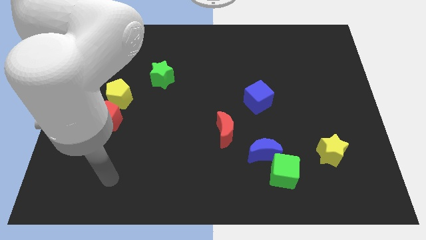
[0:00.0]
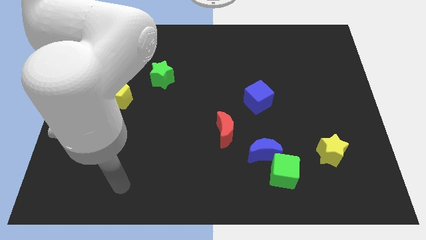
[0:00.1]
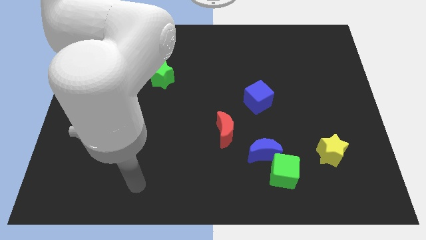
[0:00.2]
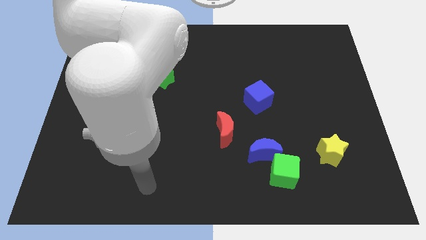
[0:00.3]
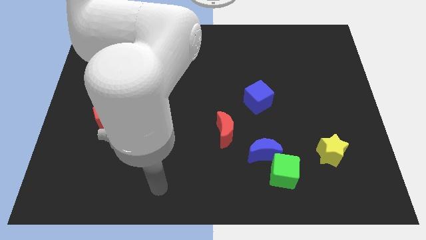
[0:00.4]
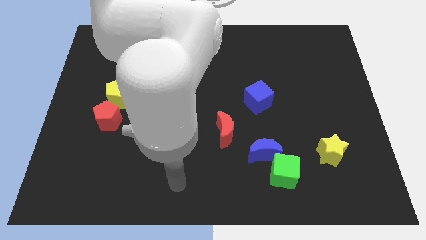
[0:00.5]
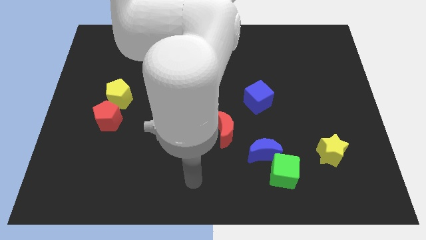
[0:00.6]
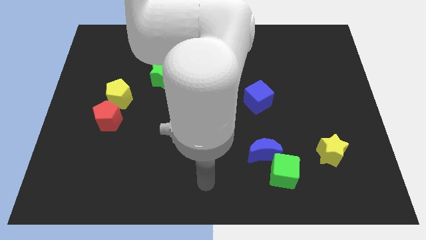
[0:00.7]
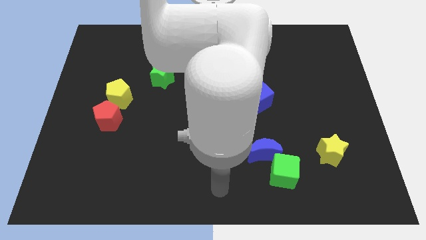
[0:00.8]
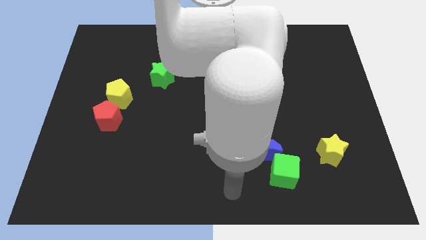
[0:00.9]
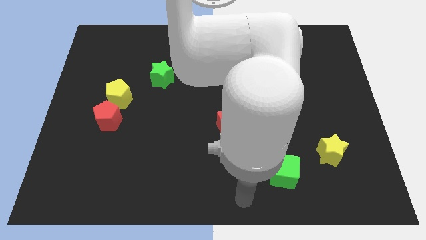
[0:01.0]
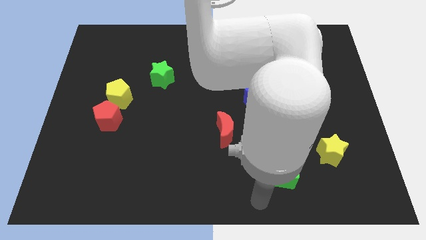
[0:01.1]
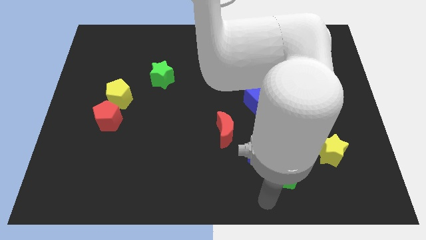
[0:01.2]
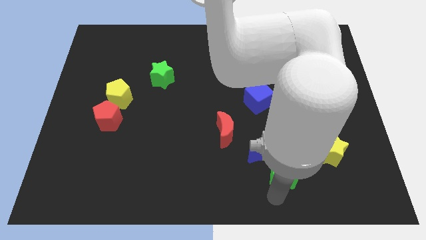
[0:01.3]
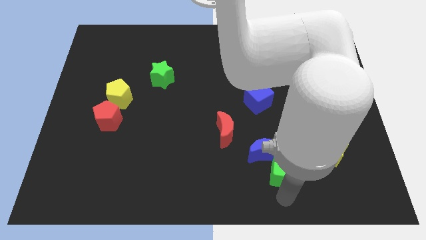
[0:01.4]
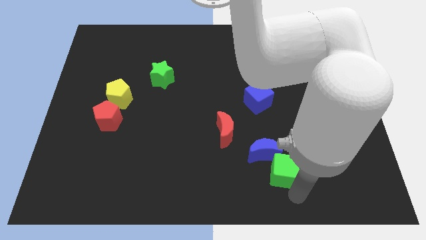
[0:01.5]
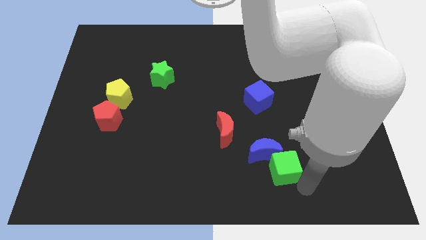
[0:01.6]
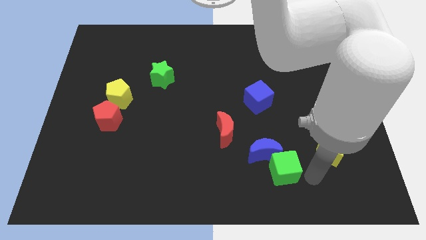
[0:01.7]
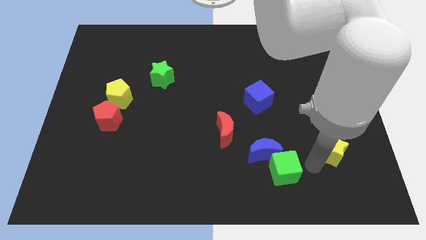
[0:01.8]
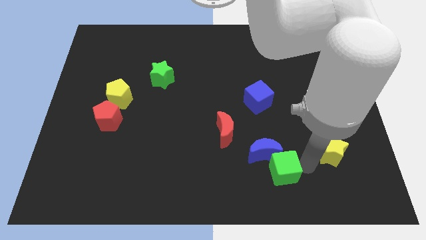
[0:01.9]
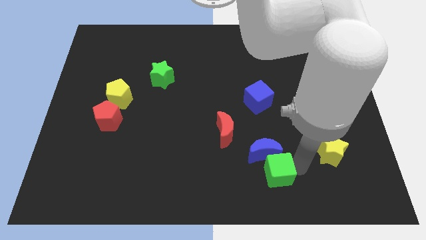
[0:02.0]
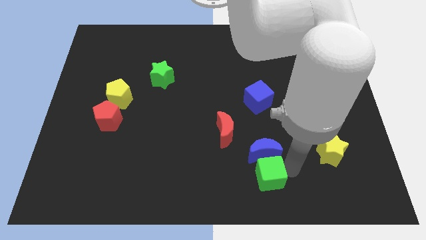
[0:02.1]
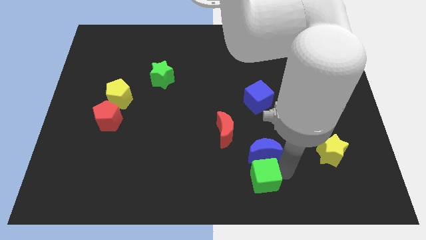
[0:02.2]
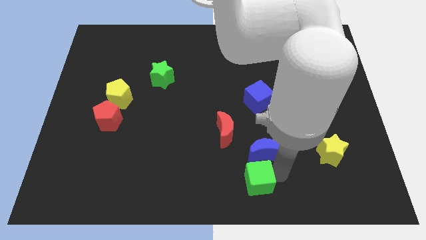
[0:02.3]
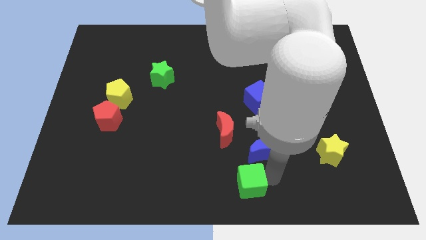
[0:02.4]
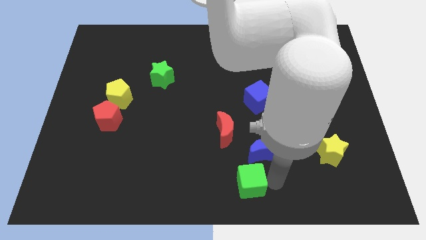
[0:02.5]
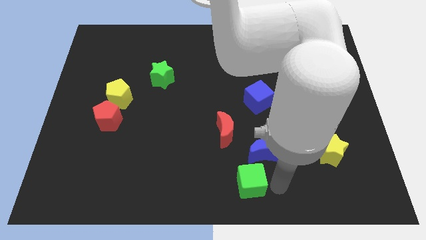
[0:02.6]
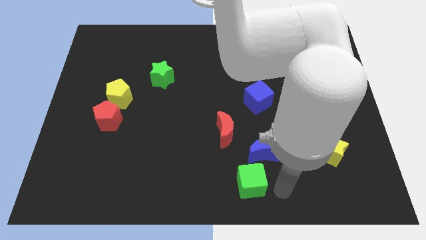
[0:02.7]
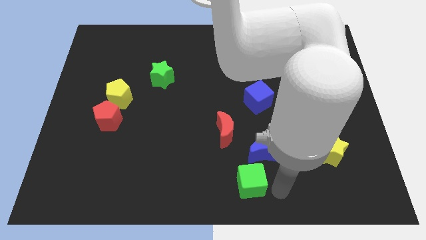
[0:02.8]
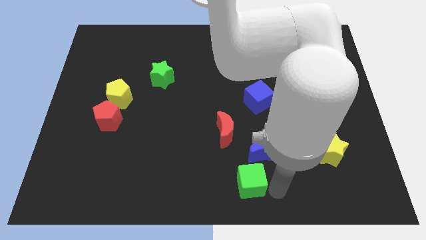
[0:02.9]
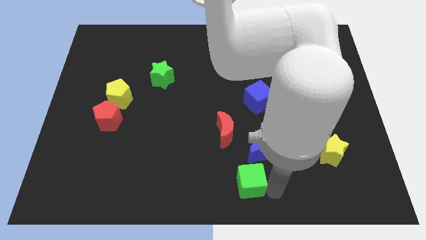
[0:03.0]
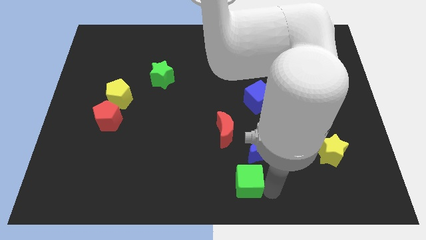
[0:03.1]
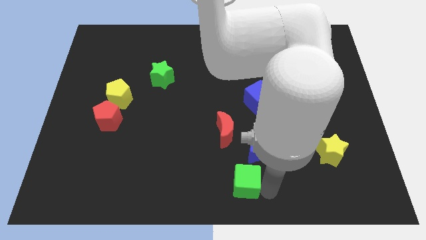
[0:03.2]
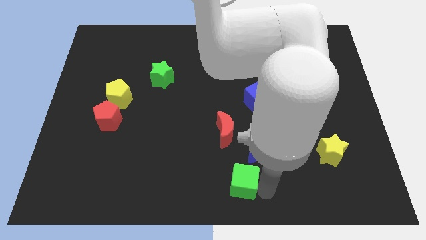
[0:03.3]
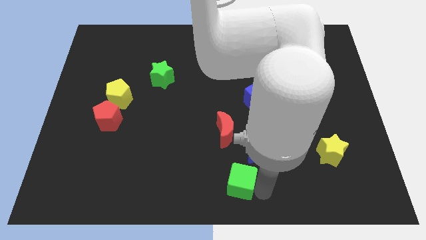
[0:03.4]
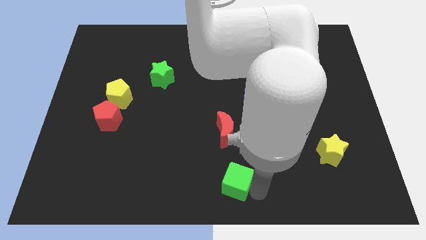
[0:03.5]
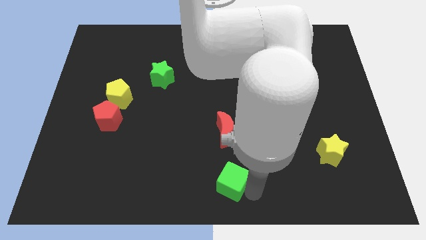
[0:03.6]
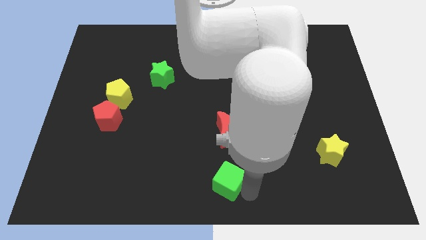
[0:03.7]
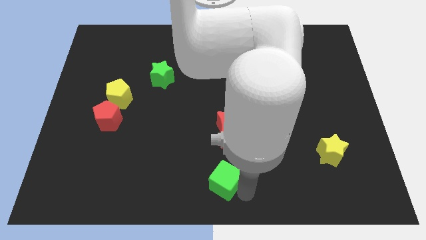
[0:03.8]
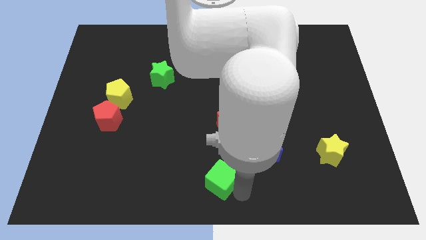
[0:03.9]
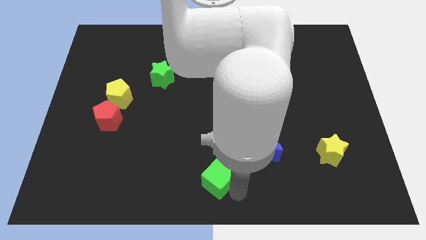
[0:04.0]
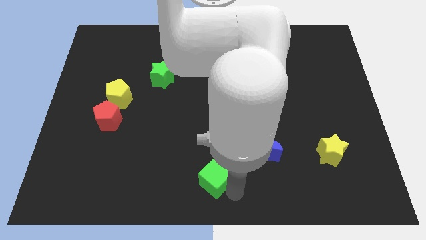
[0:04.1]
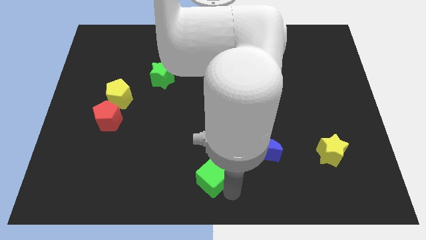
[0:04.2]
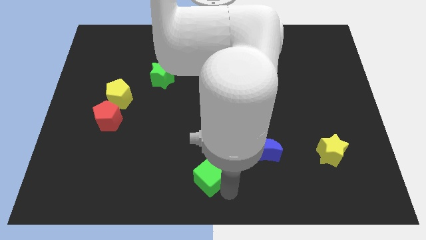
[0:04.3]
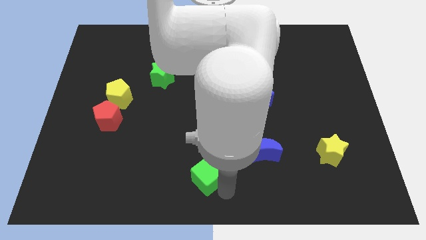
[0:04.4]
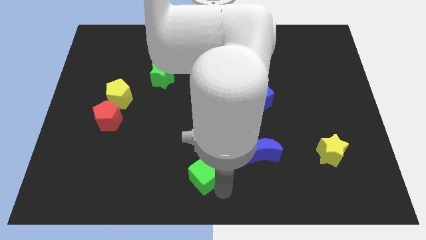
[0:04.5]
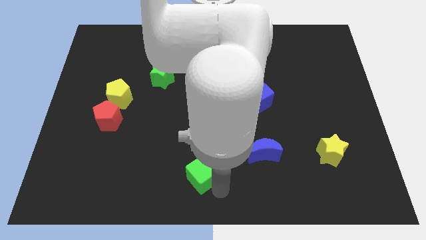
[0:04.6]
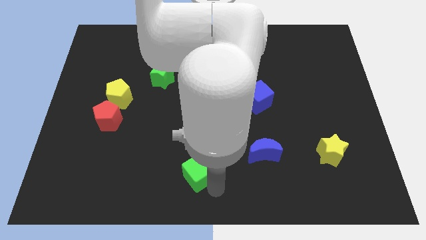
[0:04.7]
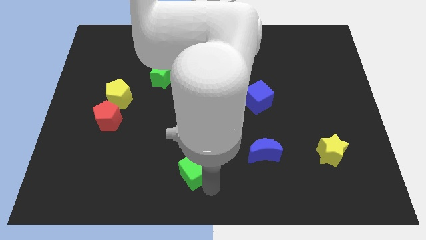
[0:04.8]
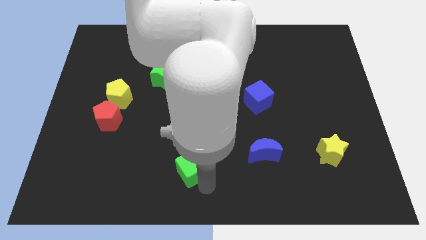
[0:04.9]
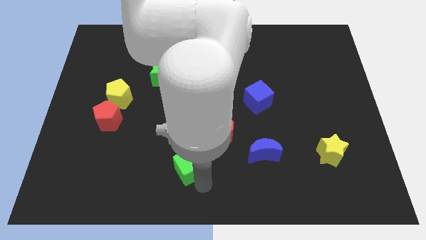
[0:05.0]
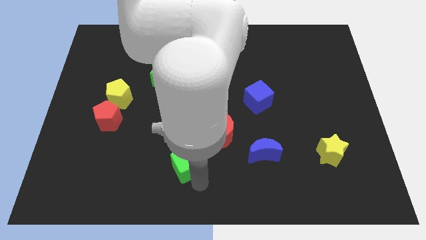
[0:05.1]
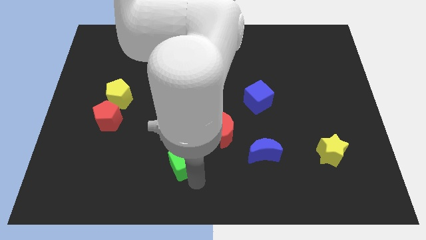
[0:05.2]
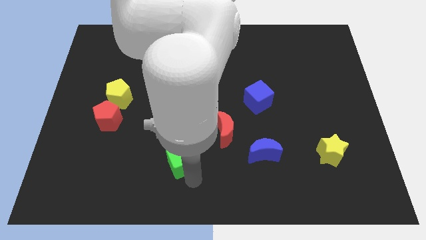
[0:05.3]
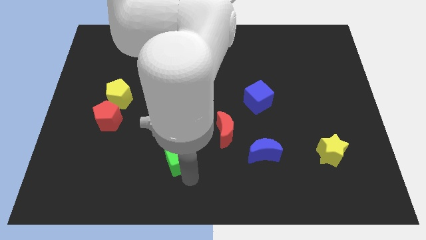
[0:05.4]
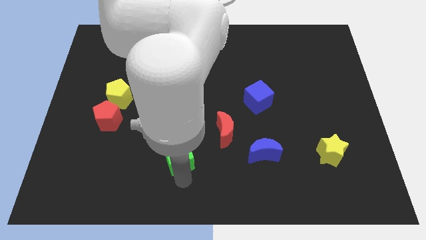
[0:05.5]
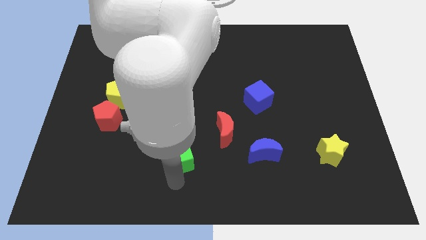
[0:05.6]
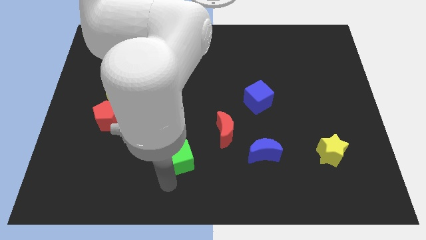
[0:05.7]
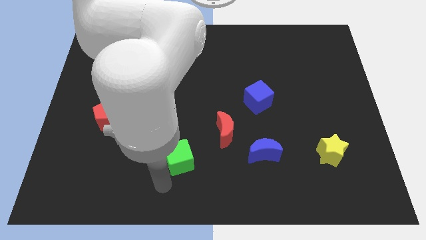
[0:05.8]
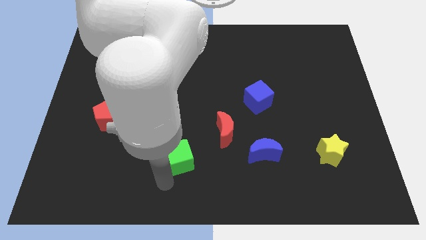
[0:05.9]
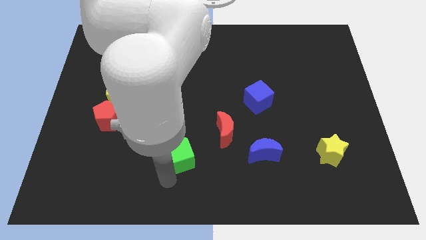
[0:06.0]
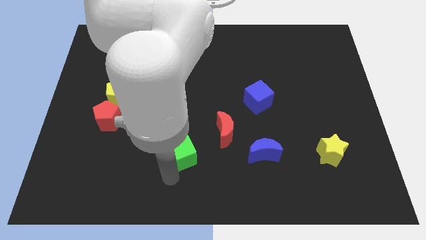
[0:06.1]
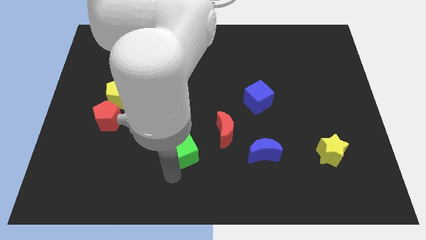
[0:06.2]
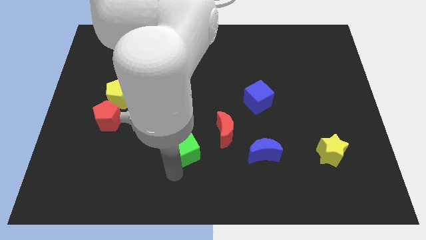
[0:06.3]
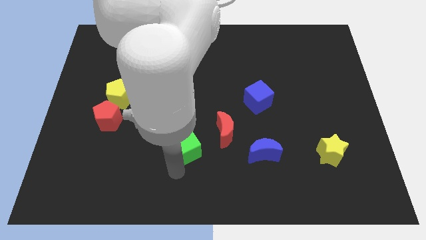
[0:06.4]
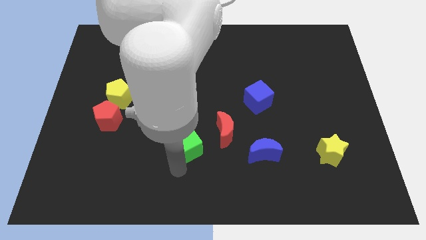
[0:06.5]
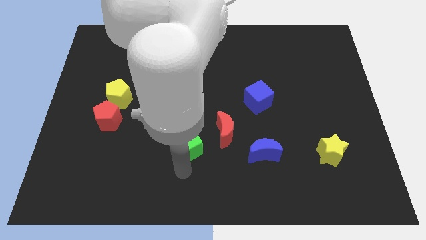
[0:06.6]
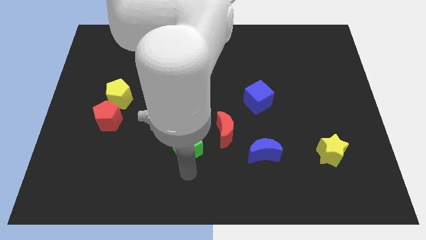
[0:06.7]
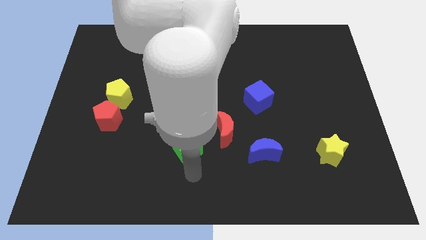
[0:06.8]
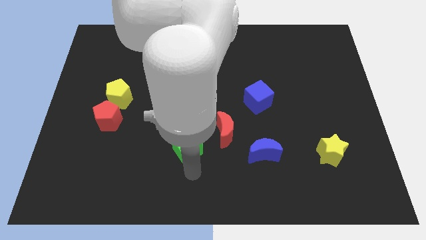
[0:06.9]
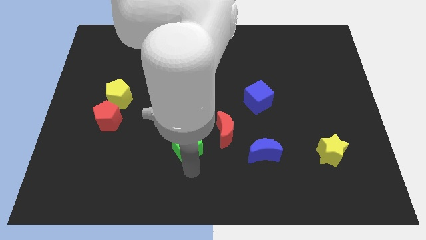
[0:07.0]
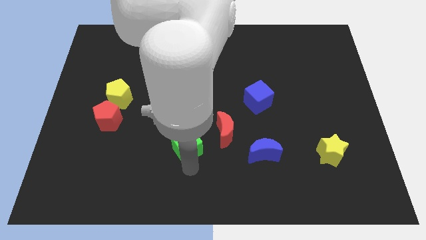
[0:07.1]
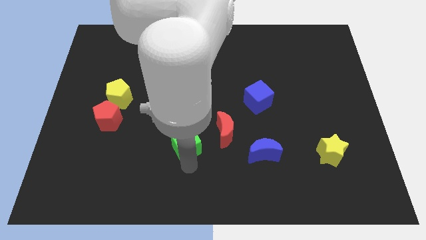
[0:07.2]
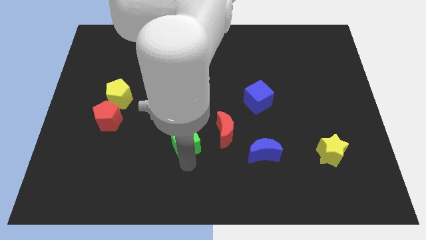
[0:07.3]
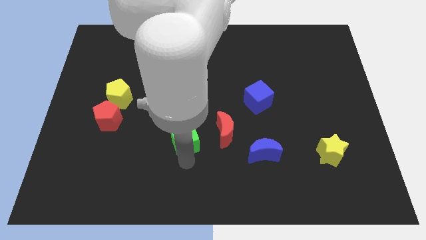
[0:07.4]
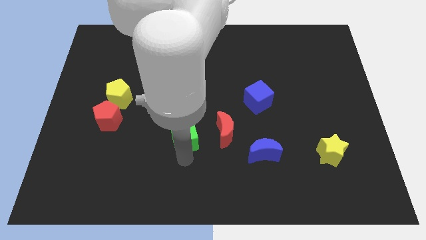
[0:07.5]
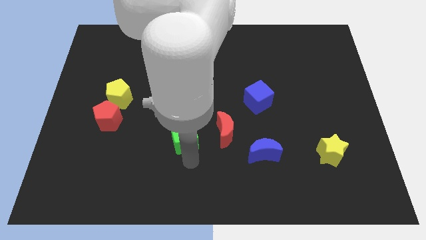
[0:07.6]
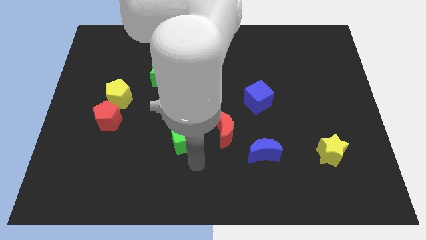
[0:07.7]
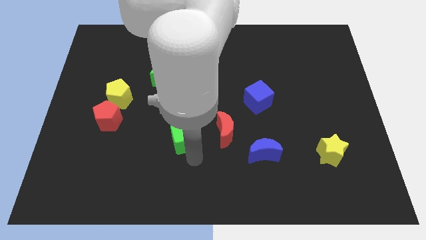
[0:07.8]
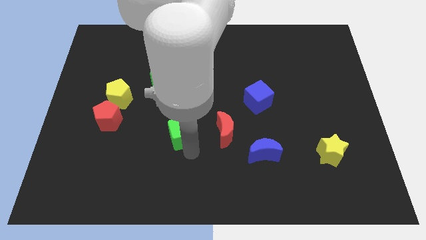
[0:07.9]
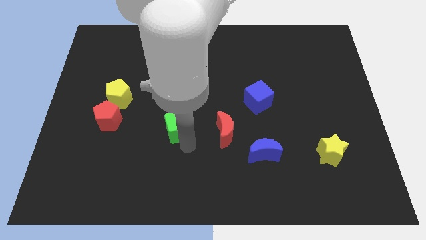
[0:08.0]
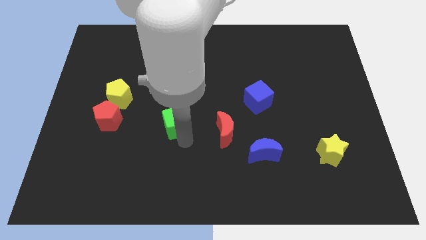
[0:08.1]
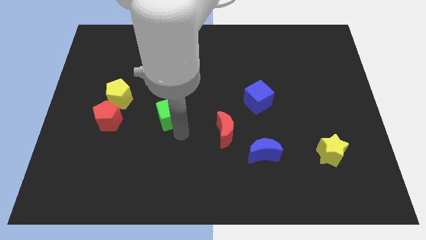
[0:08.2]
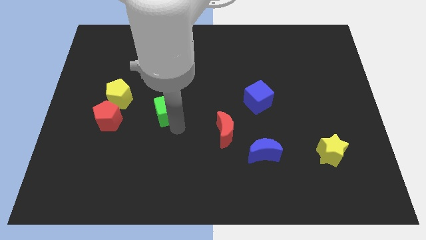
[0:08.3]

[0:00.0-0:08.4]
slide the green cube right of the yellow pentagon
